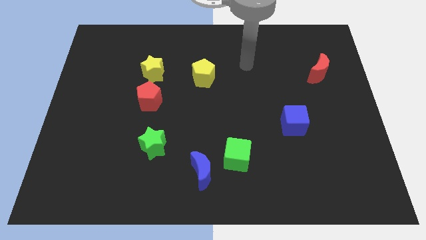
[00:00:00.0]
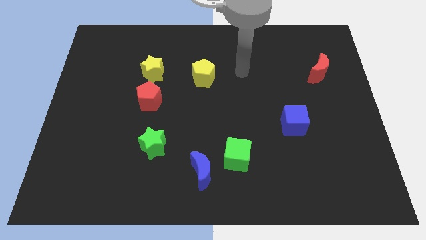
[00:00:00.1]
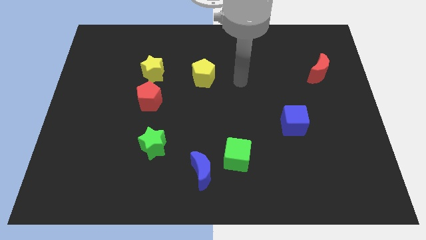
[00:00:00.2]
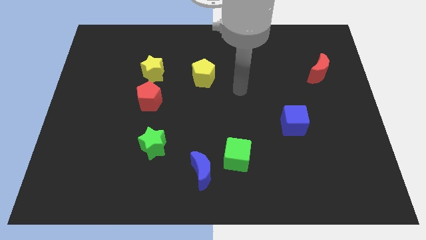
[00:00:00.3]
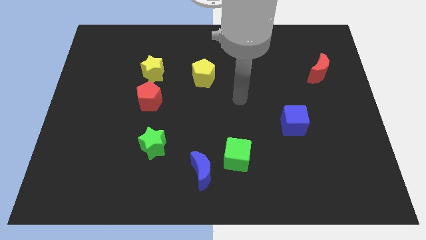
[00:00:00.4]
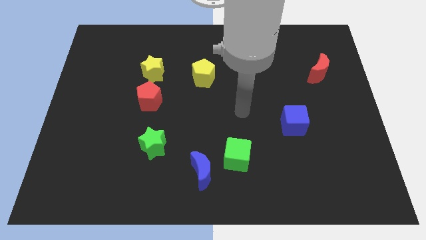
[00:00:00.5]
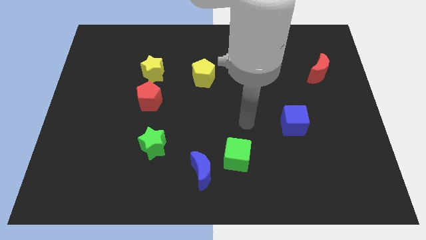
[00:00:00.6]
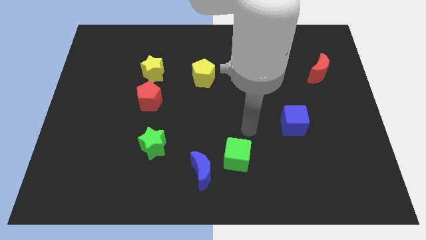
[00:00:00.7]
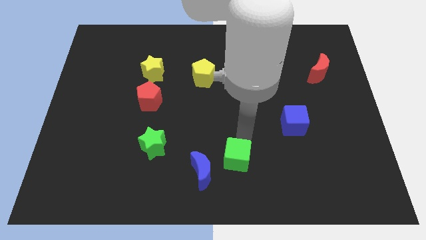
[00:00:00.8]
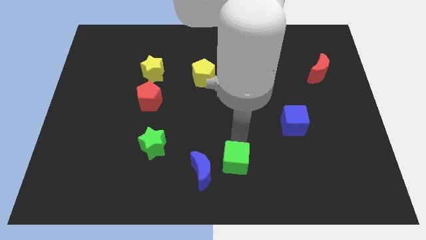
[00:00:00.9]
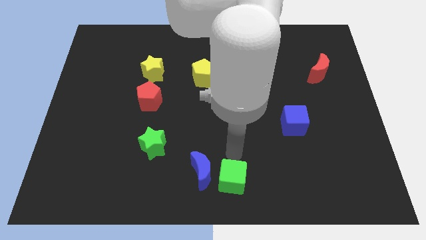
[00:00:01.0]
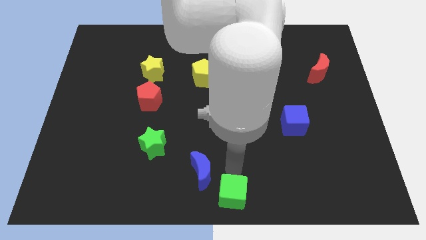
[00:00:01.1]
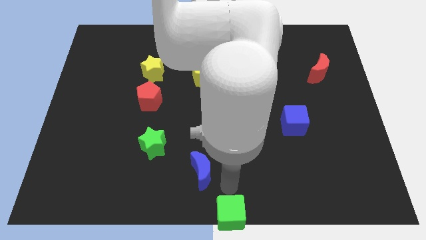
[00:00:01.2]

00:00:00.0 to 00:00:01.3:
pull the blue moon apart from the green cube

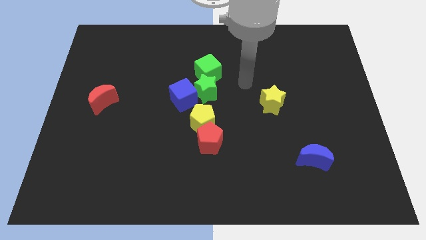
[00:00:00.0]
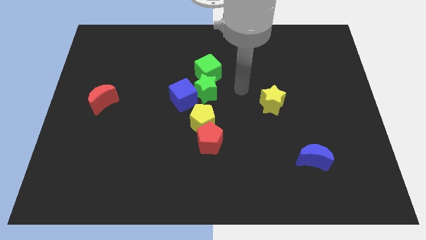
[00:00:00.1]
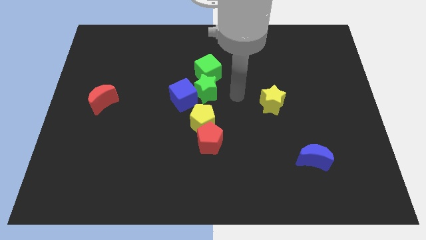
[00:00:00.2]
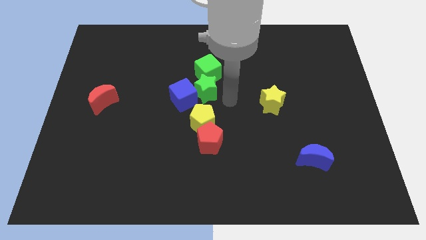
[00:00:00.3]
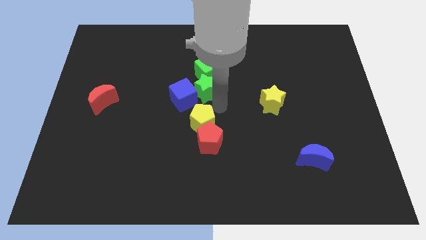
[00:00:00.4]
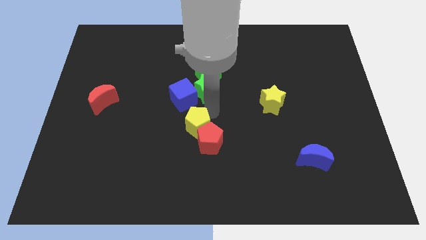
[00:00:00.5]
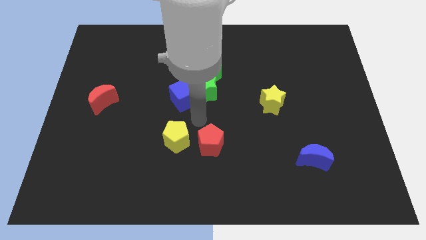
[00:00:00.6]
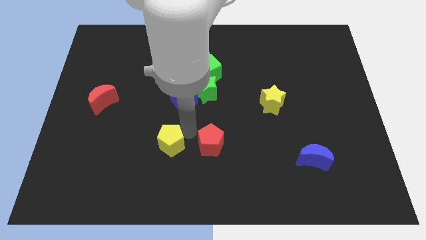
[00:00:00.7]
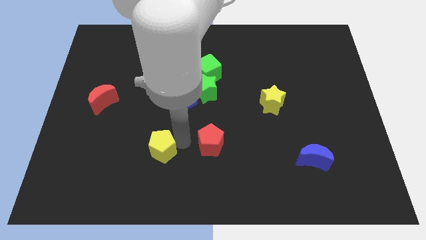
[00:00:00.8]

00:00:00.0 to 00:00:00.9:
separate the red pentagon from the yellow pentagon

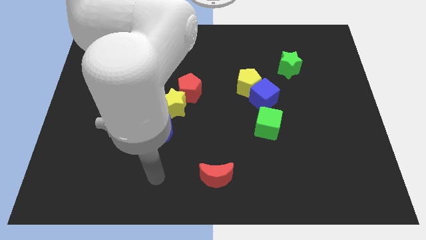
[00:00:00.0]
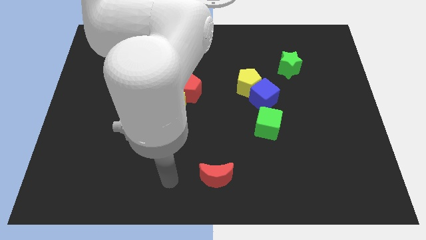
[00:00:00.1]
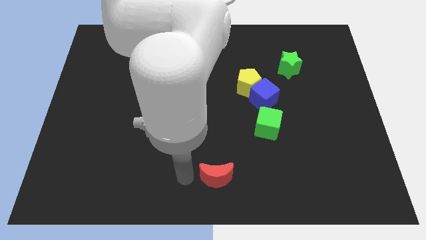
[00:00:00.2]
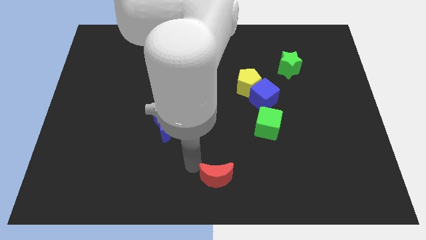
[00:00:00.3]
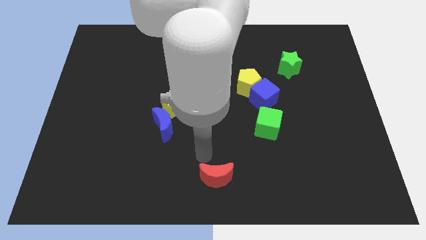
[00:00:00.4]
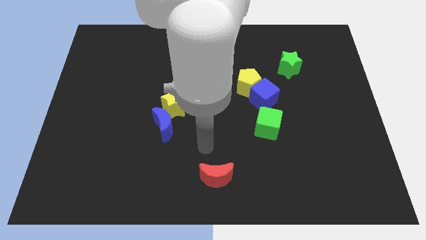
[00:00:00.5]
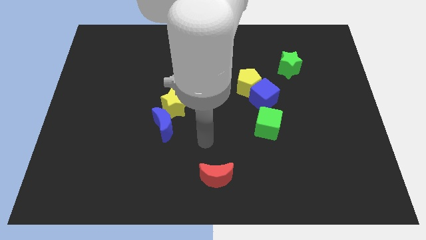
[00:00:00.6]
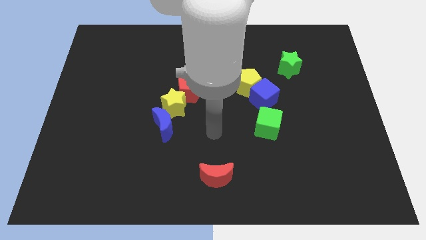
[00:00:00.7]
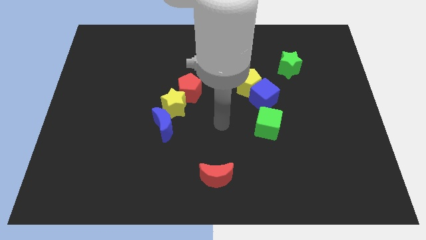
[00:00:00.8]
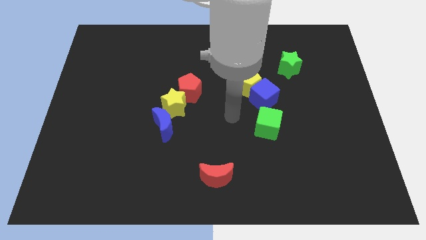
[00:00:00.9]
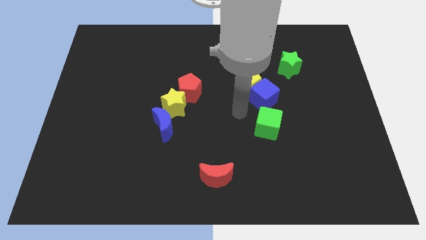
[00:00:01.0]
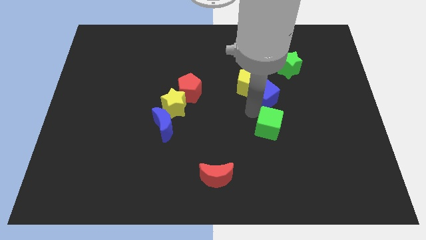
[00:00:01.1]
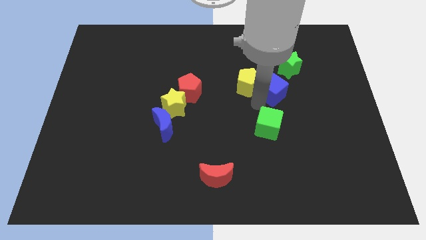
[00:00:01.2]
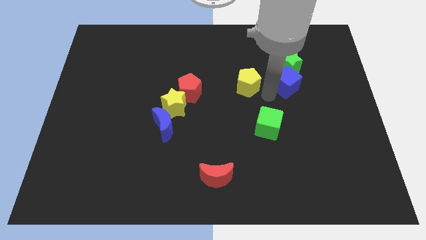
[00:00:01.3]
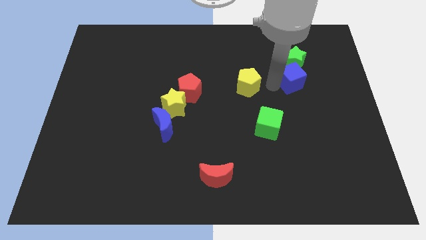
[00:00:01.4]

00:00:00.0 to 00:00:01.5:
separate the yellow pentagon from the blue cube

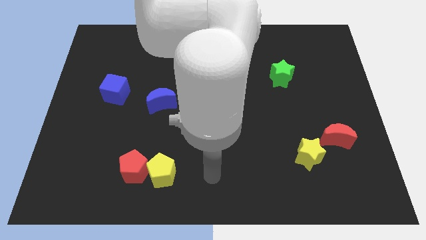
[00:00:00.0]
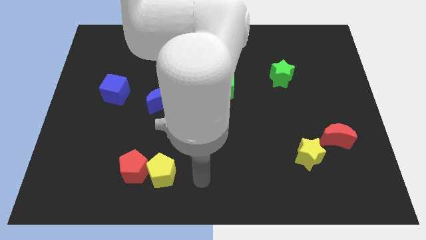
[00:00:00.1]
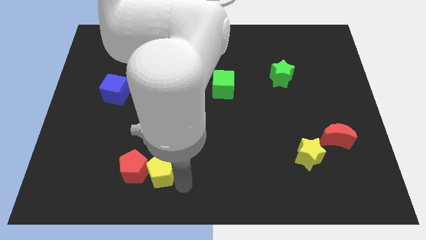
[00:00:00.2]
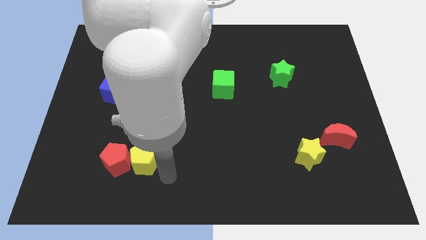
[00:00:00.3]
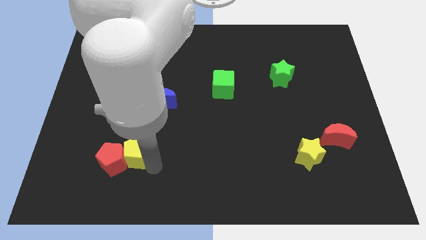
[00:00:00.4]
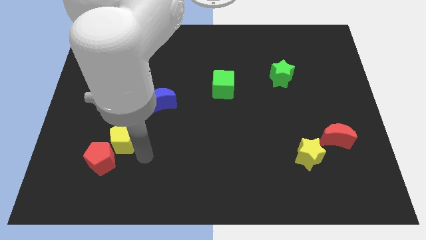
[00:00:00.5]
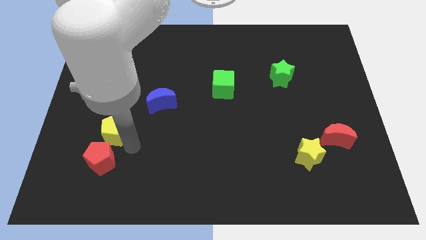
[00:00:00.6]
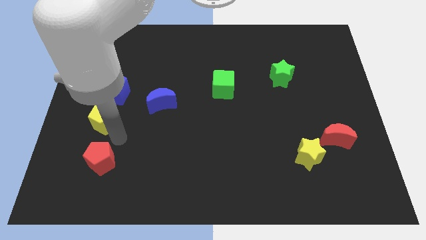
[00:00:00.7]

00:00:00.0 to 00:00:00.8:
move the red pentagon away from the yellow pentagon

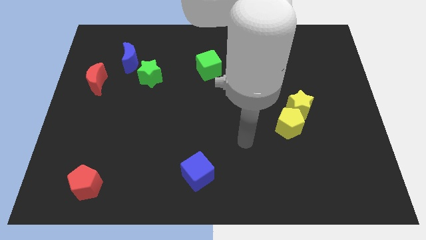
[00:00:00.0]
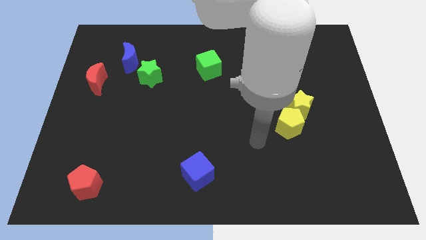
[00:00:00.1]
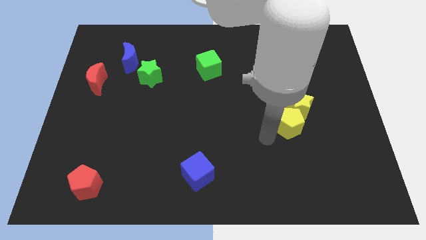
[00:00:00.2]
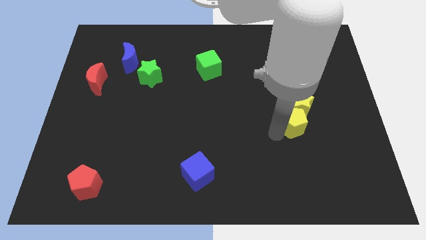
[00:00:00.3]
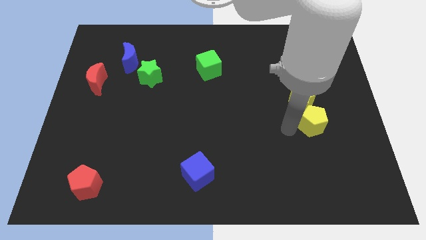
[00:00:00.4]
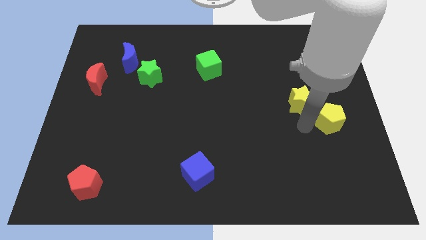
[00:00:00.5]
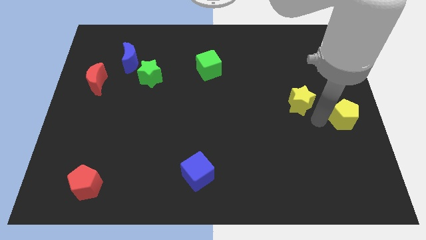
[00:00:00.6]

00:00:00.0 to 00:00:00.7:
pull the yellow star apart from the yellow pentagon

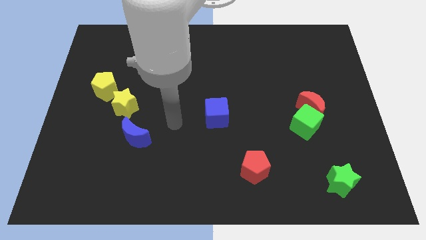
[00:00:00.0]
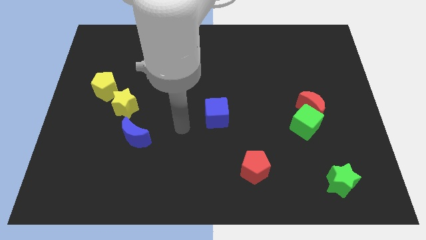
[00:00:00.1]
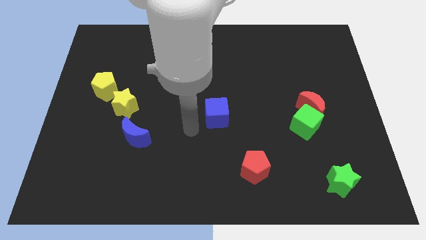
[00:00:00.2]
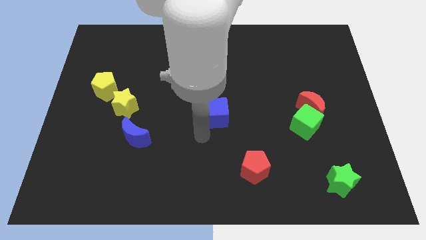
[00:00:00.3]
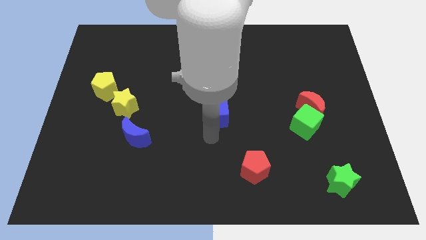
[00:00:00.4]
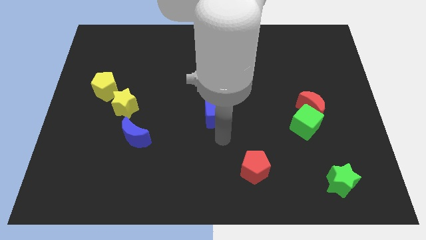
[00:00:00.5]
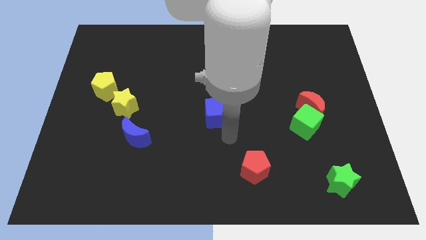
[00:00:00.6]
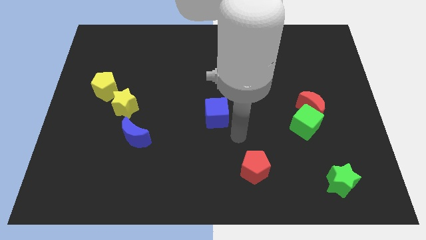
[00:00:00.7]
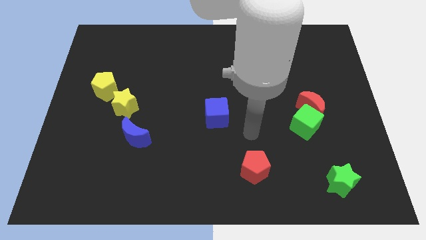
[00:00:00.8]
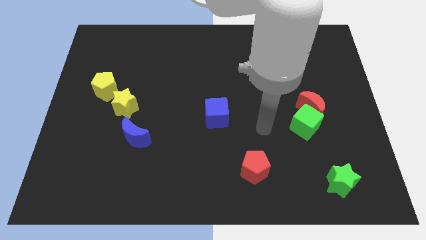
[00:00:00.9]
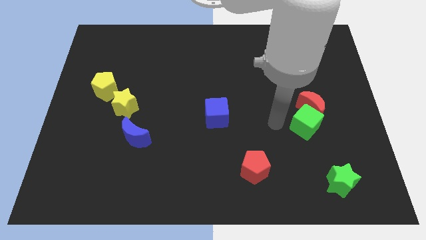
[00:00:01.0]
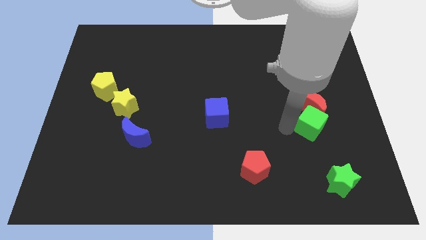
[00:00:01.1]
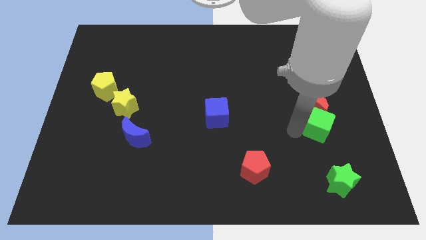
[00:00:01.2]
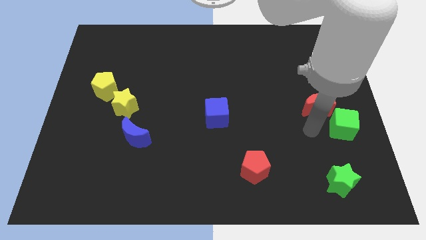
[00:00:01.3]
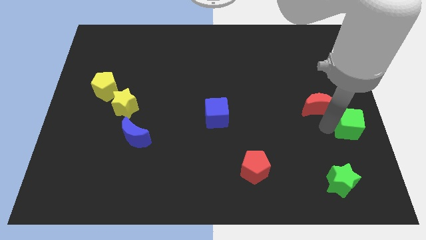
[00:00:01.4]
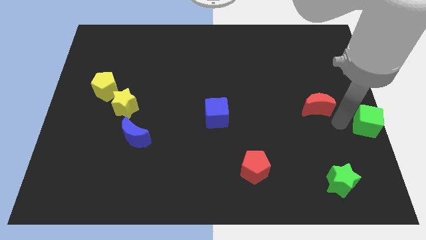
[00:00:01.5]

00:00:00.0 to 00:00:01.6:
separate the red moon from the green cube

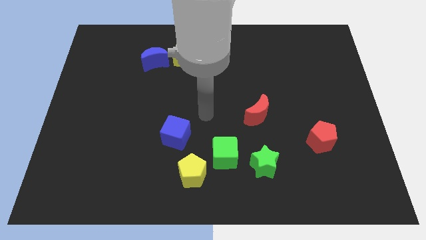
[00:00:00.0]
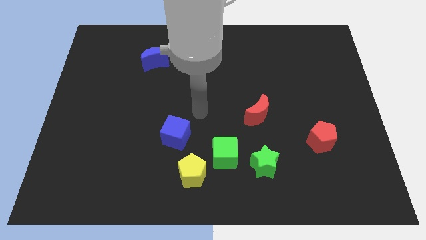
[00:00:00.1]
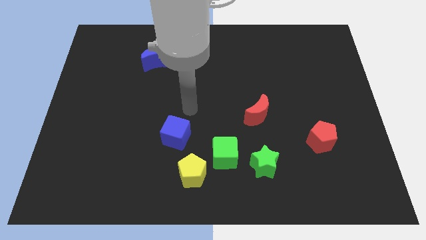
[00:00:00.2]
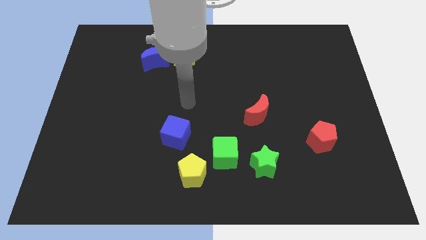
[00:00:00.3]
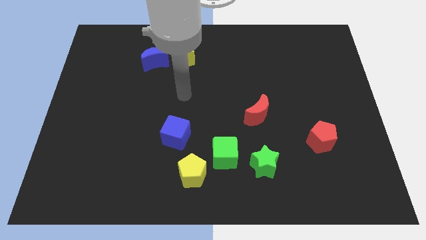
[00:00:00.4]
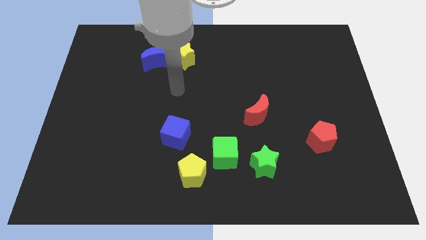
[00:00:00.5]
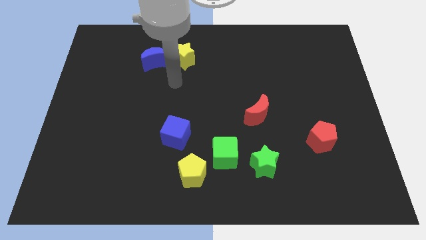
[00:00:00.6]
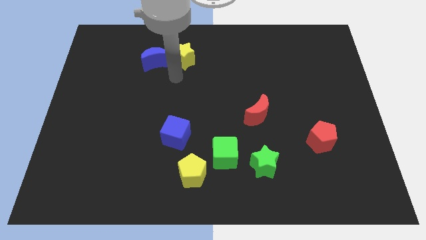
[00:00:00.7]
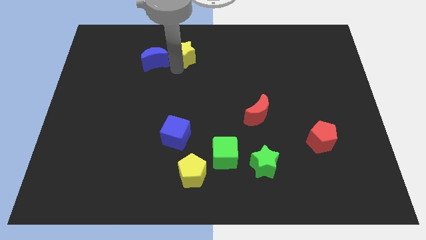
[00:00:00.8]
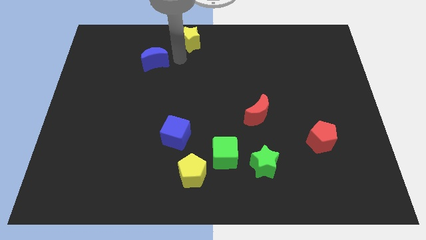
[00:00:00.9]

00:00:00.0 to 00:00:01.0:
pull the blue moon apart from the yellow star

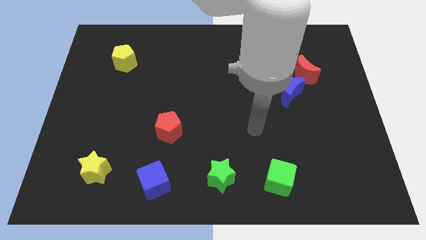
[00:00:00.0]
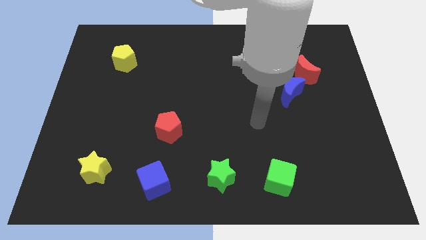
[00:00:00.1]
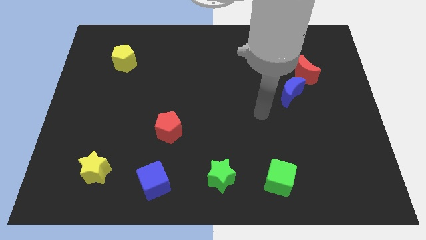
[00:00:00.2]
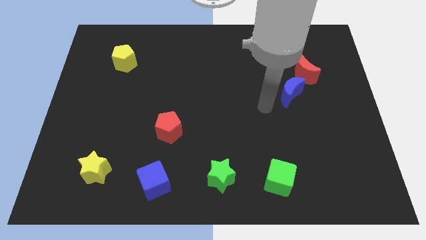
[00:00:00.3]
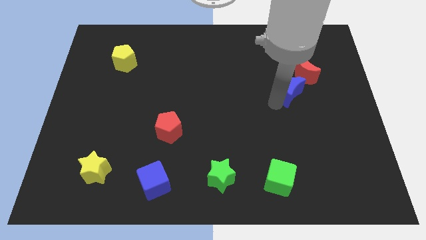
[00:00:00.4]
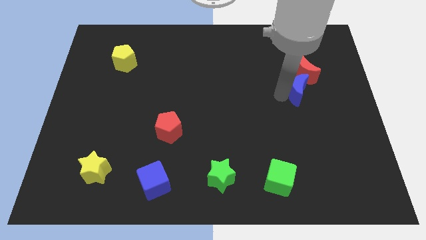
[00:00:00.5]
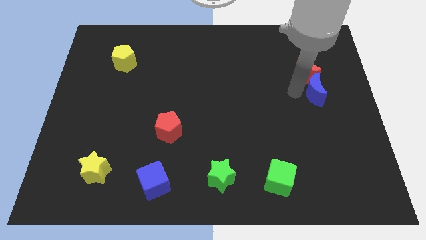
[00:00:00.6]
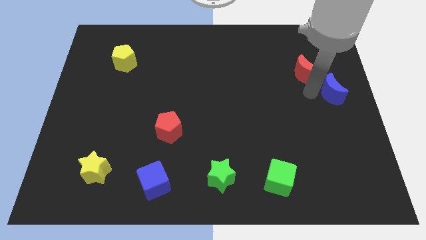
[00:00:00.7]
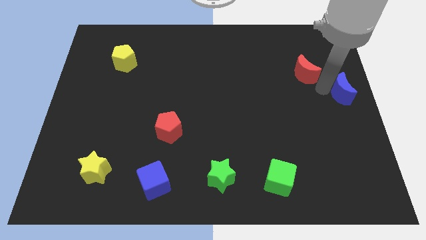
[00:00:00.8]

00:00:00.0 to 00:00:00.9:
pull the red moon apart from the blue moon

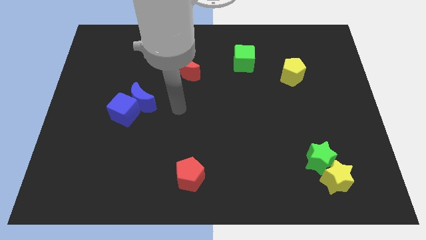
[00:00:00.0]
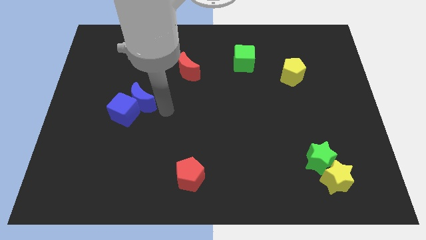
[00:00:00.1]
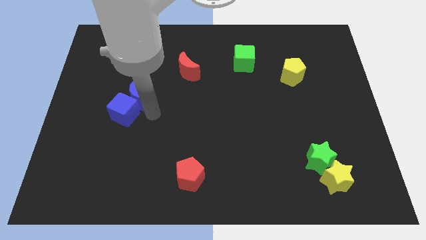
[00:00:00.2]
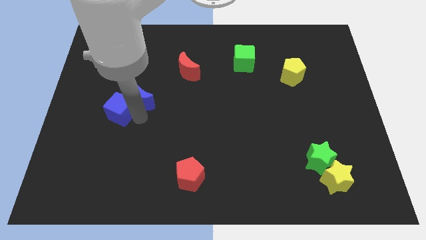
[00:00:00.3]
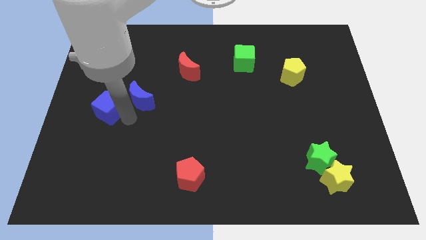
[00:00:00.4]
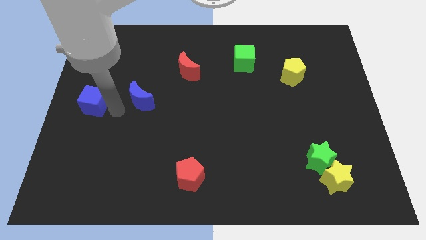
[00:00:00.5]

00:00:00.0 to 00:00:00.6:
move the blue moon away from the blue cube
